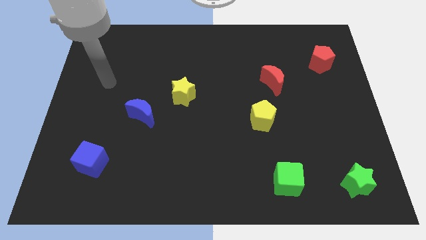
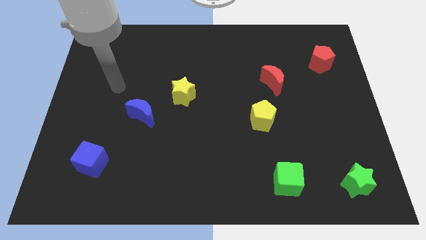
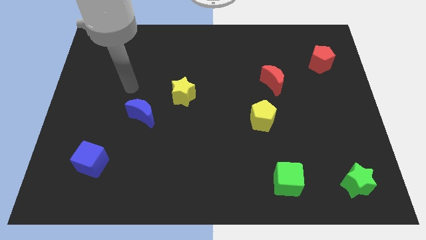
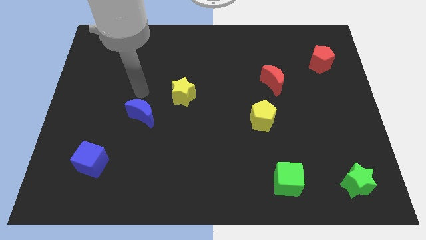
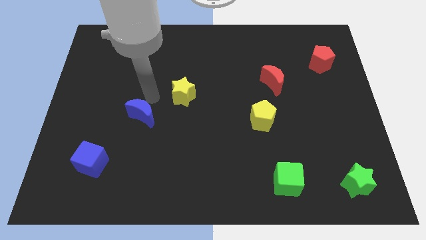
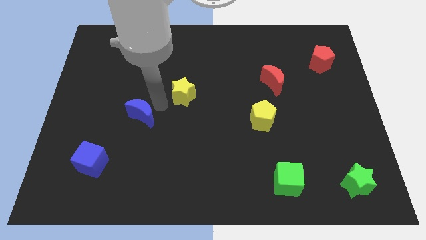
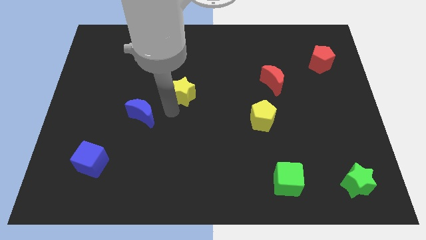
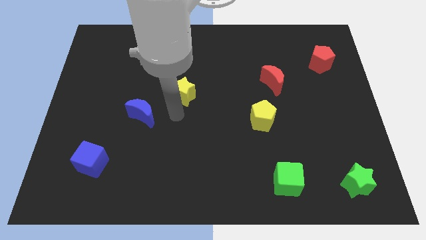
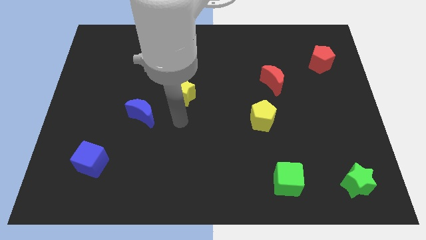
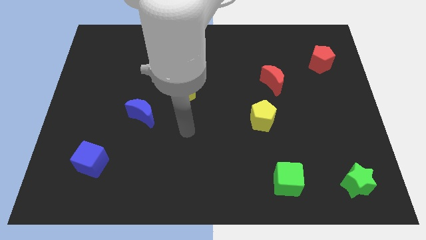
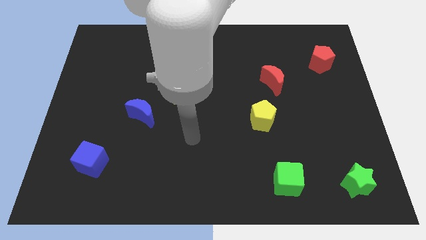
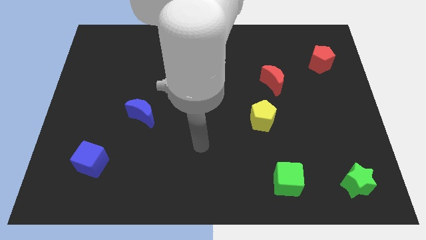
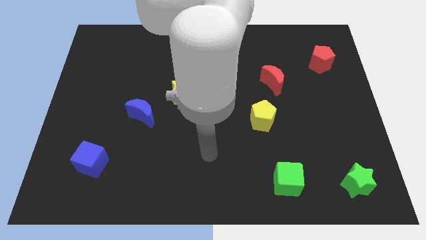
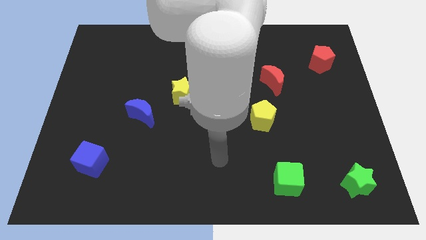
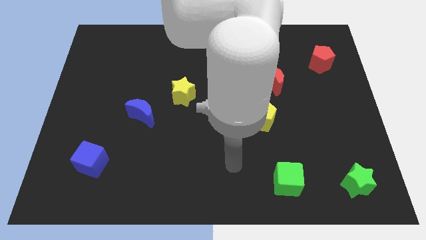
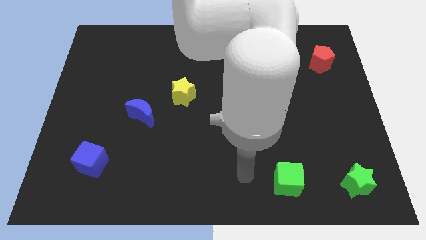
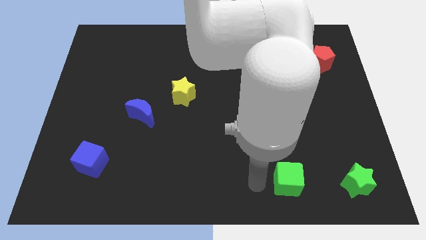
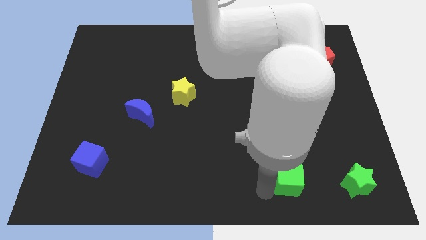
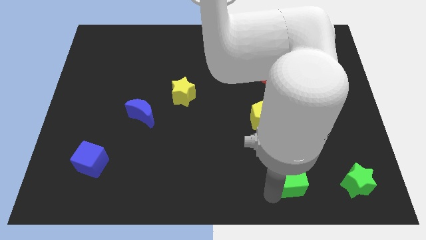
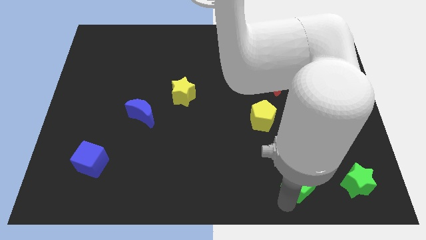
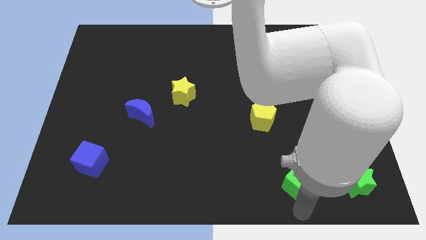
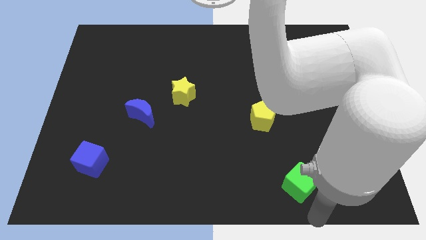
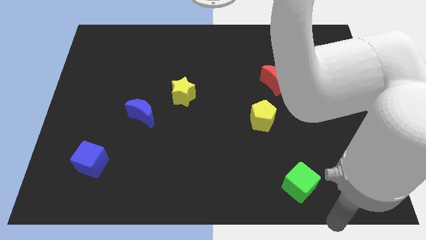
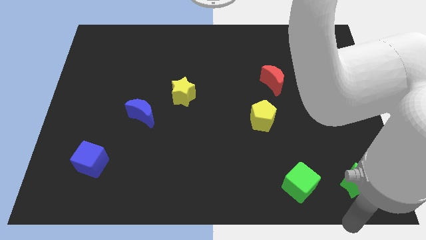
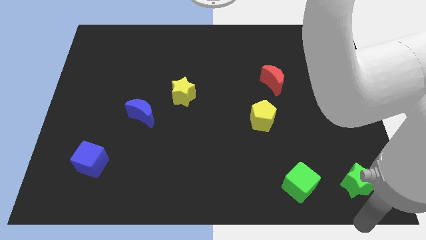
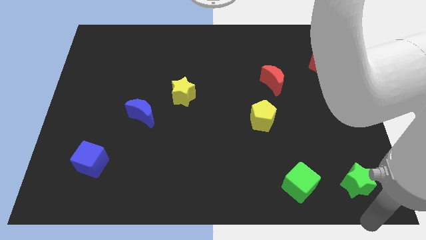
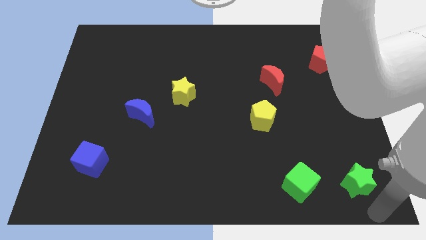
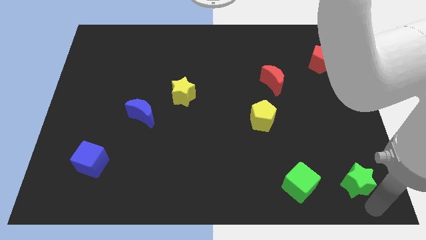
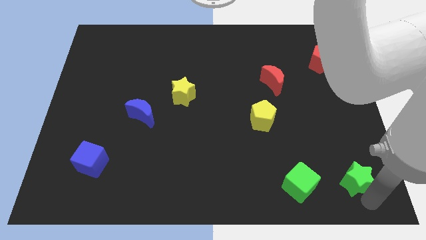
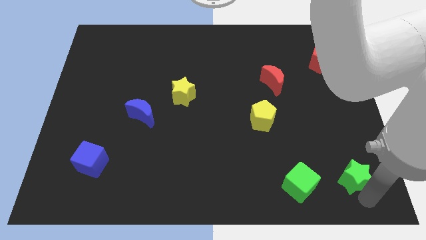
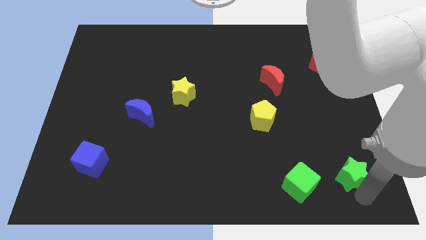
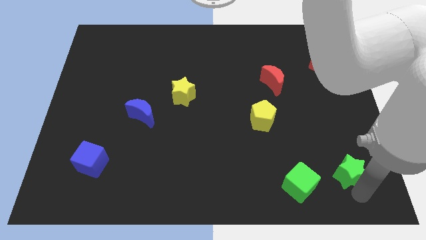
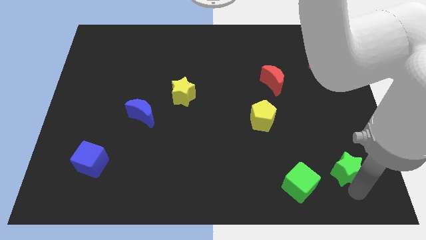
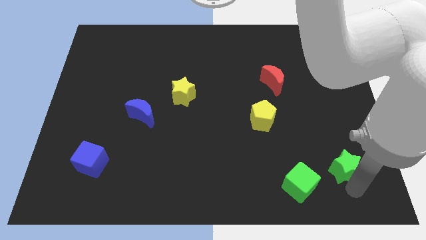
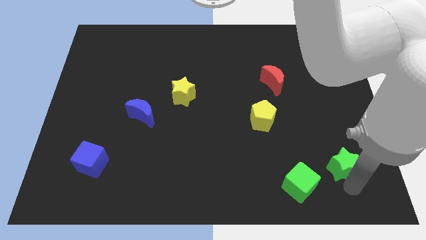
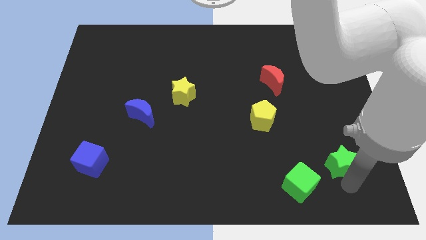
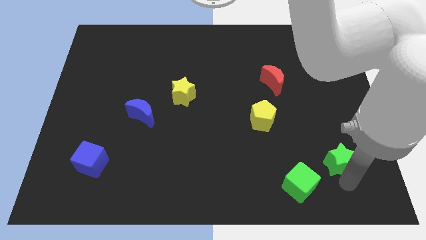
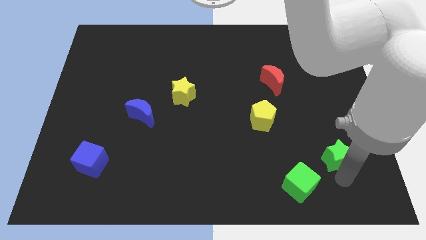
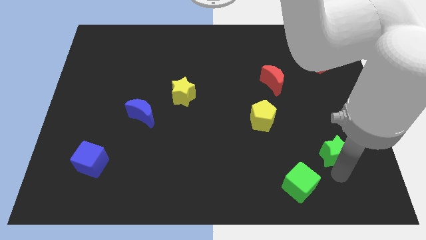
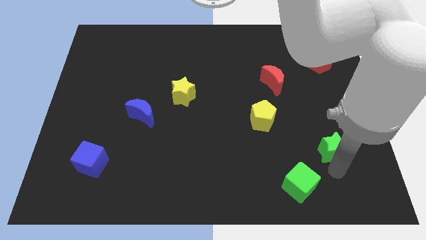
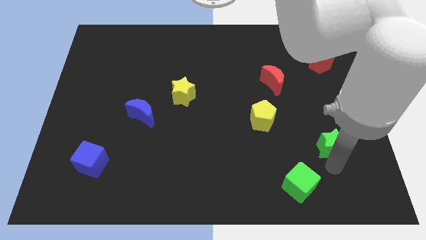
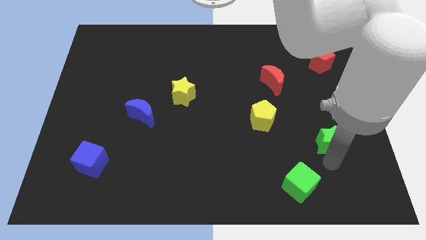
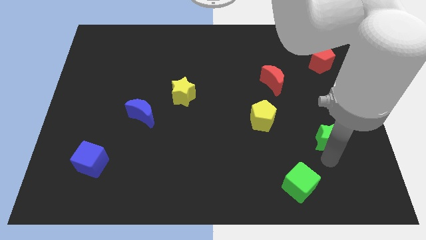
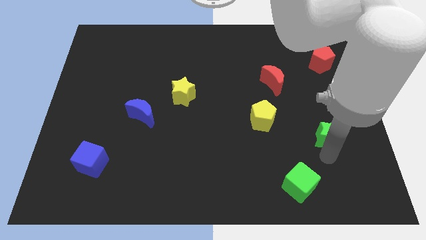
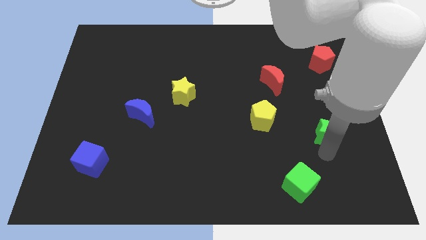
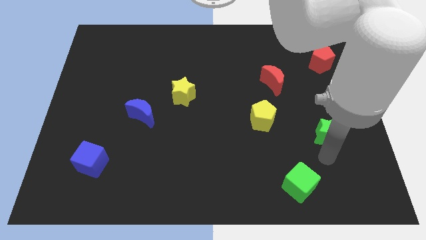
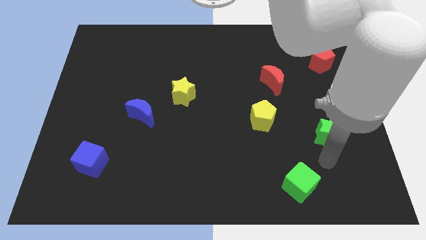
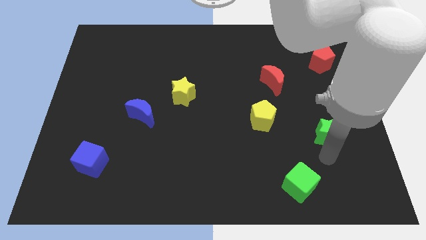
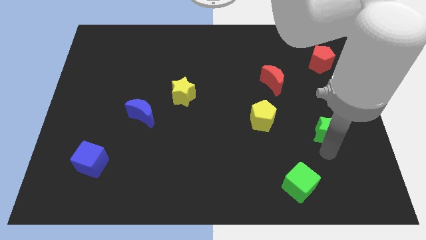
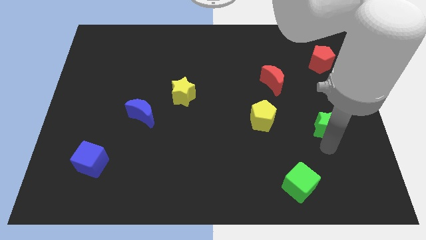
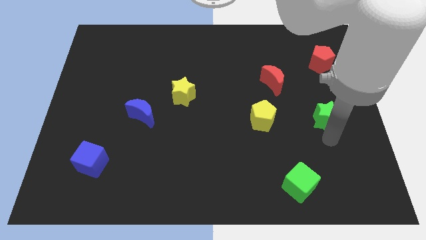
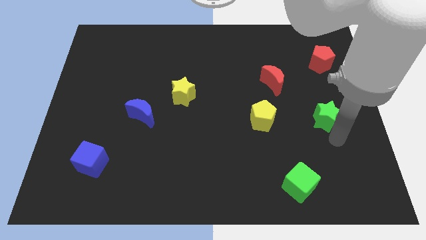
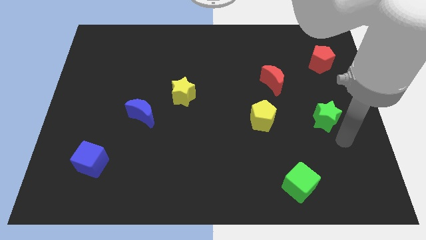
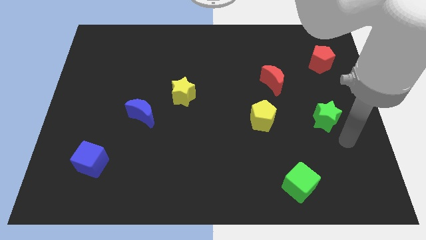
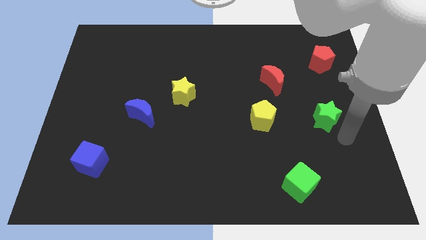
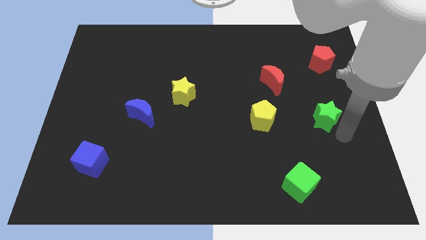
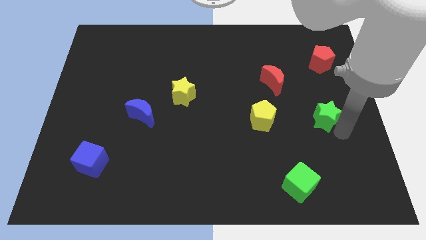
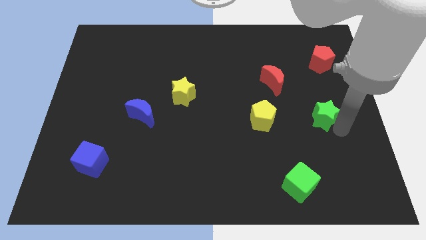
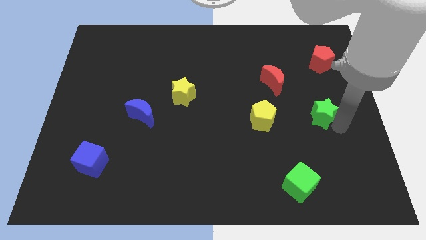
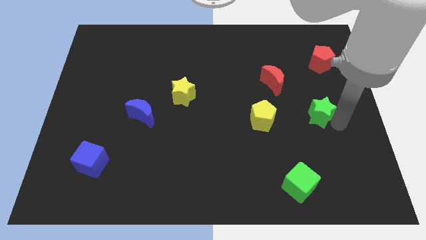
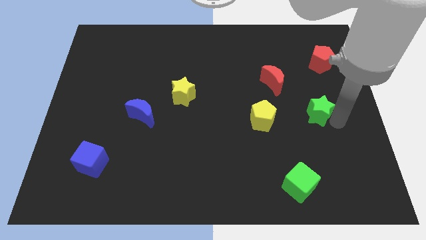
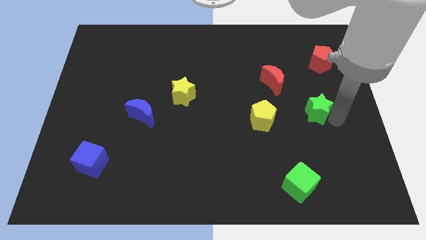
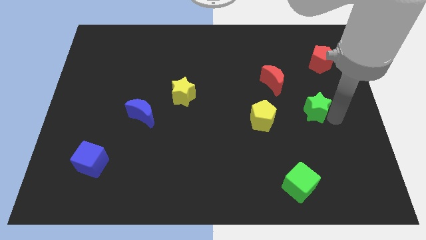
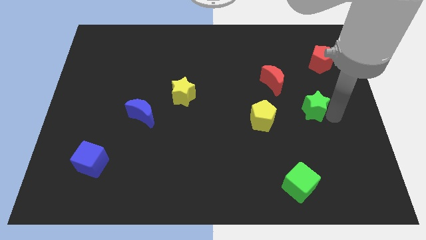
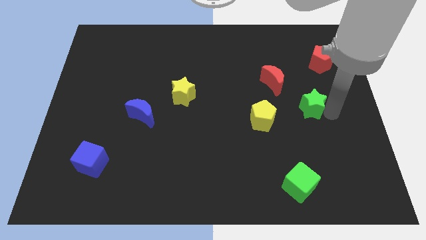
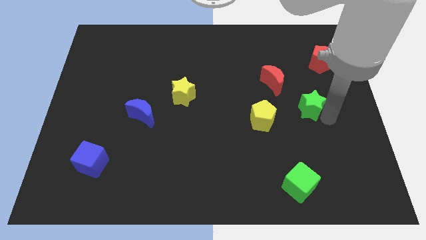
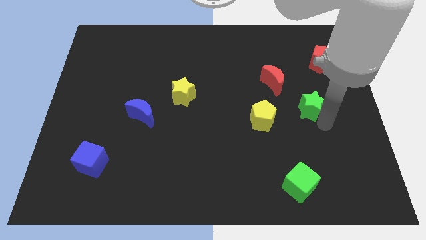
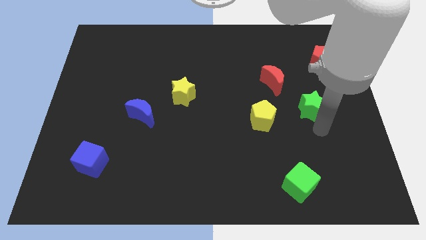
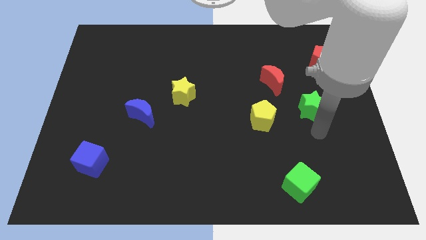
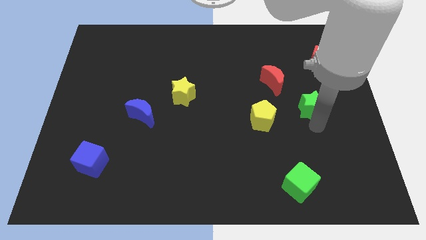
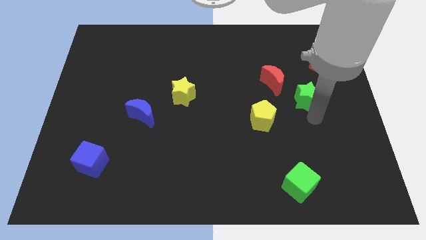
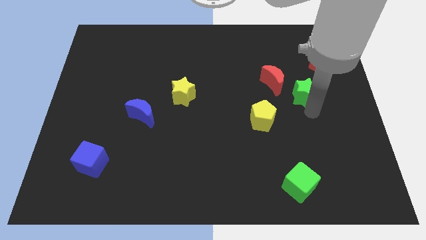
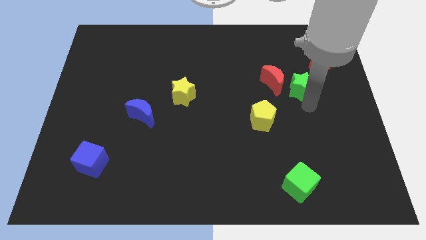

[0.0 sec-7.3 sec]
move the green star to the bottom left of the red pentagon

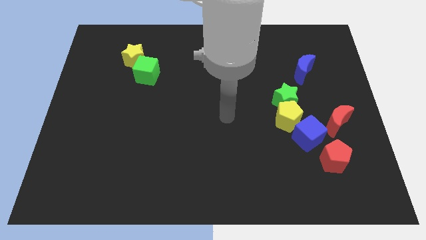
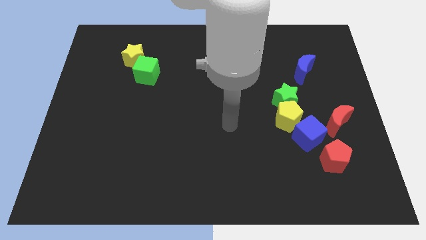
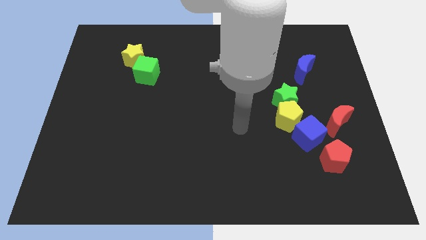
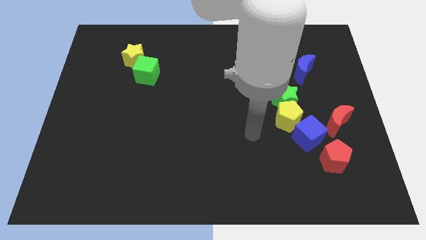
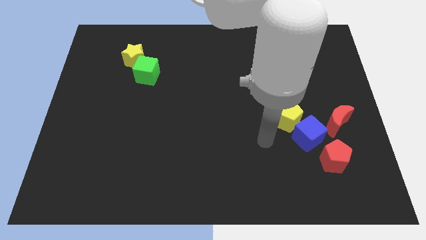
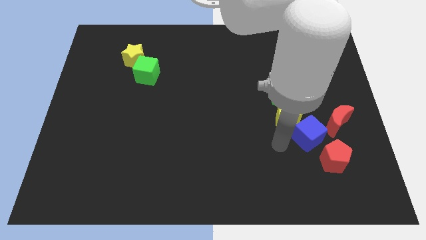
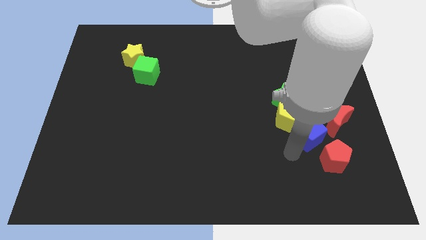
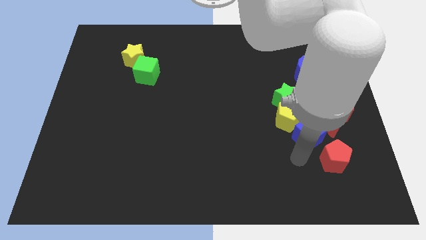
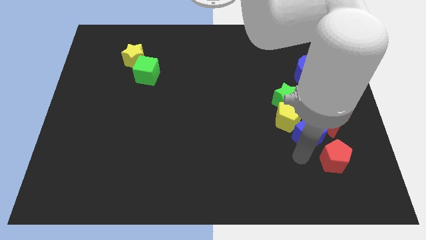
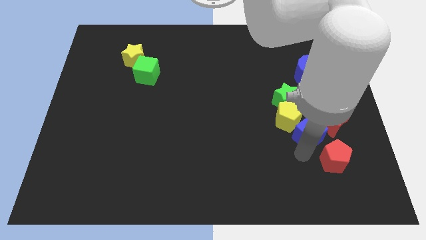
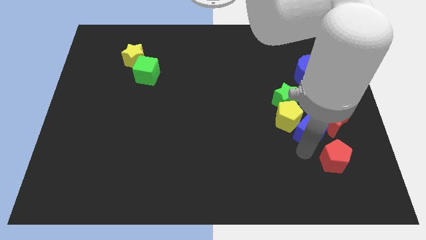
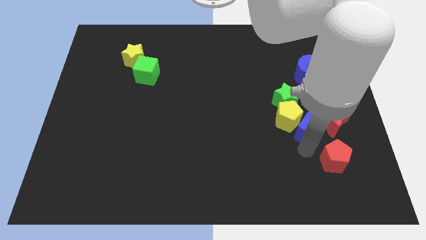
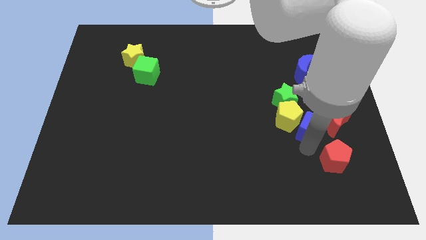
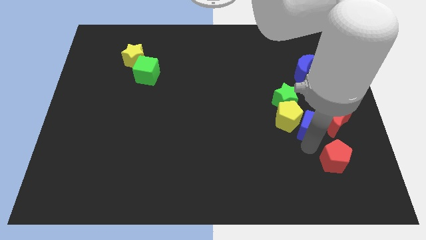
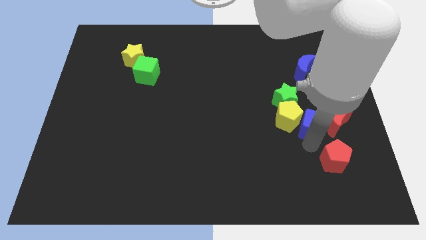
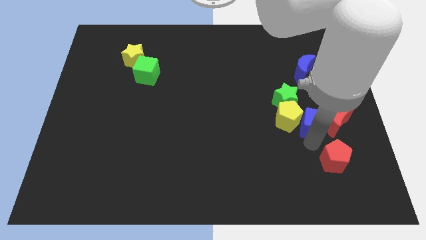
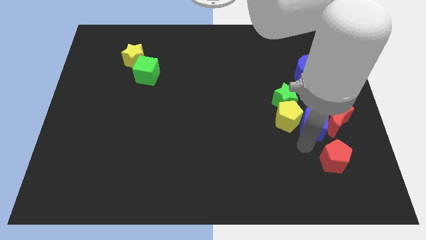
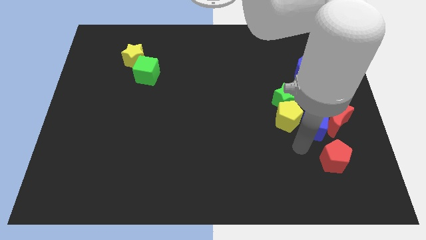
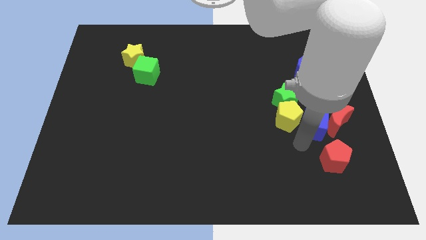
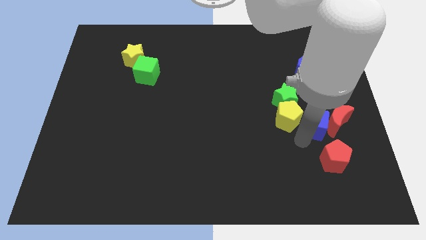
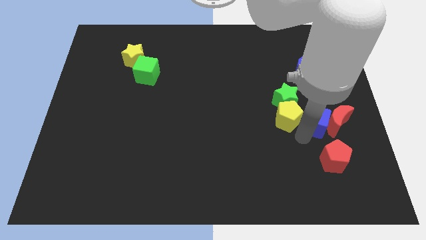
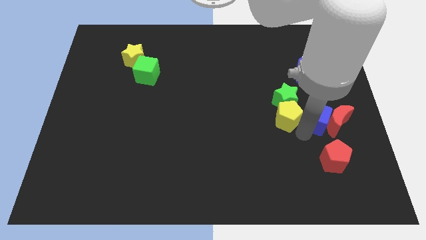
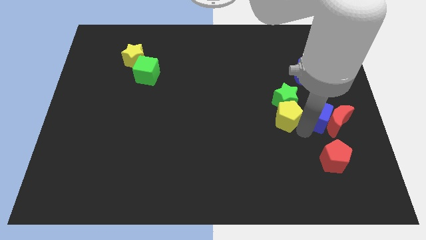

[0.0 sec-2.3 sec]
push the blue cube right of the green star
